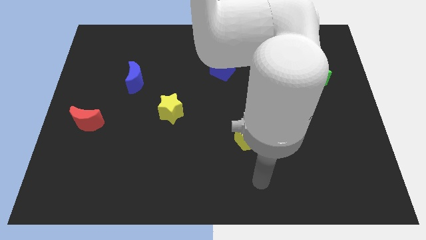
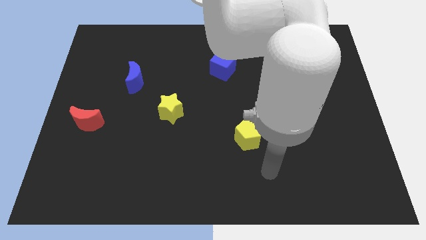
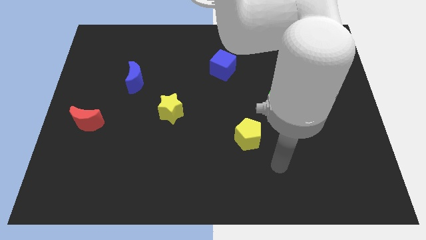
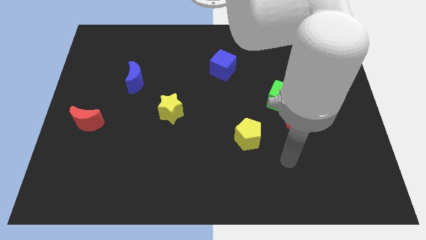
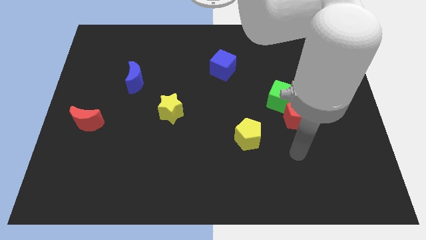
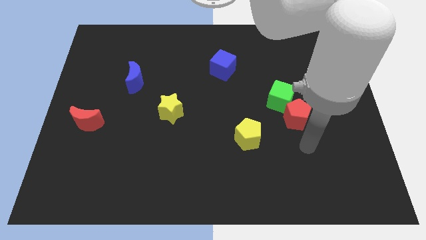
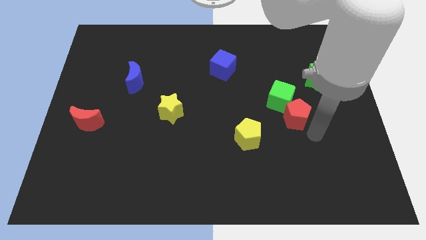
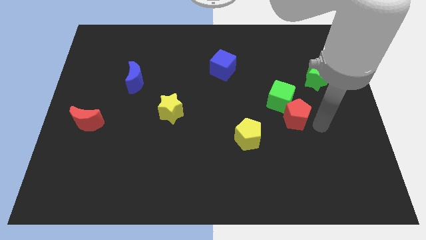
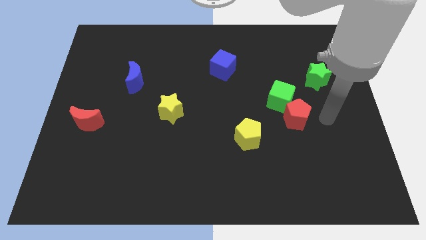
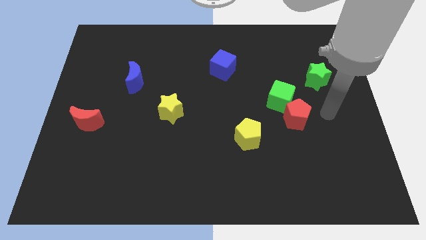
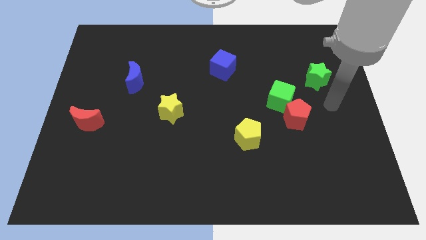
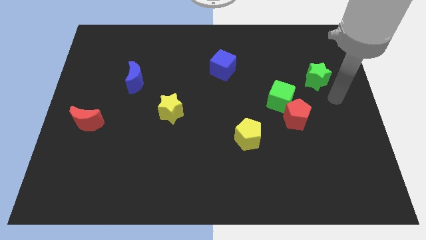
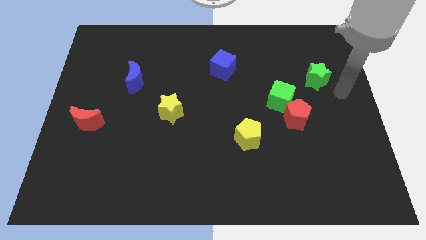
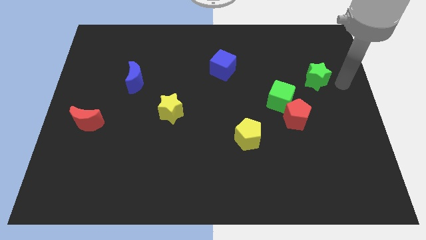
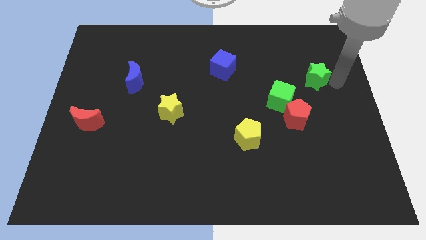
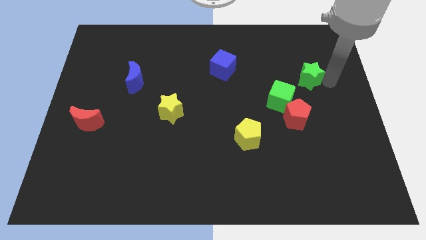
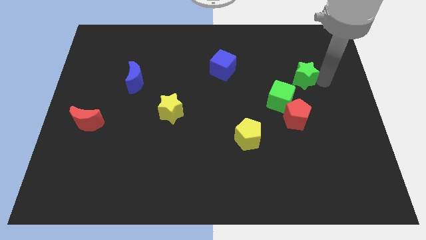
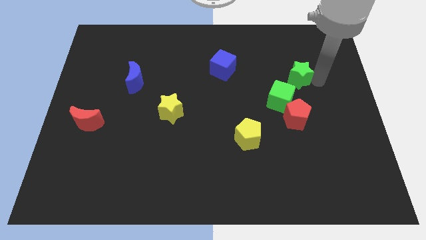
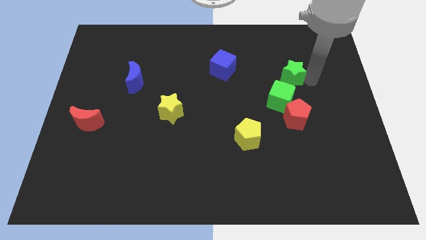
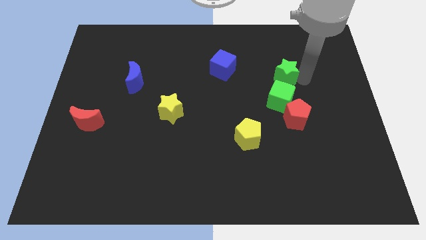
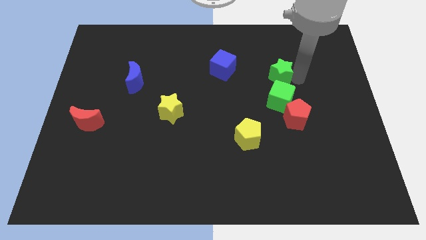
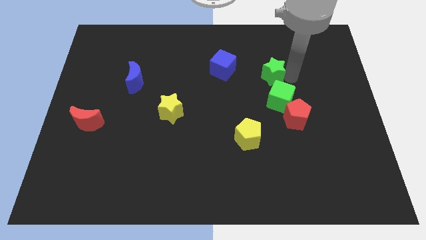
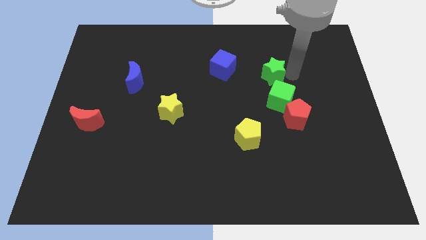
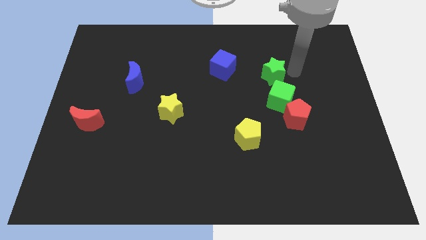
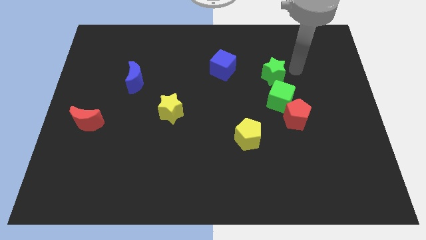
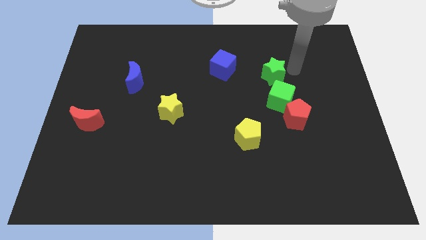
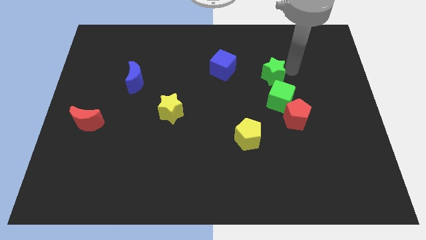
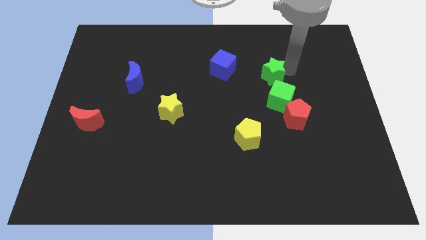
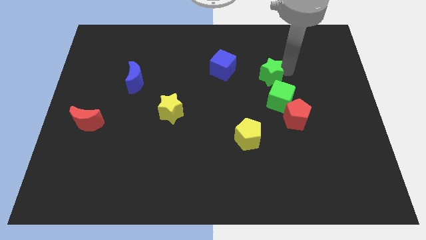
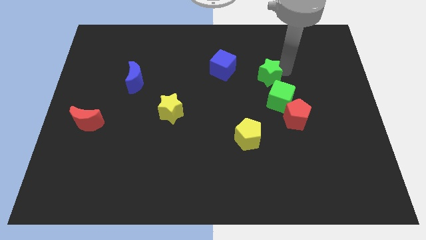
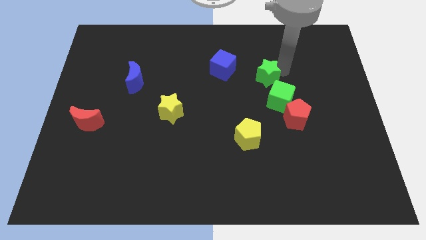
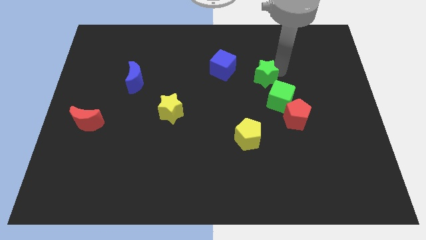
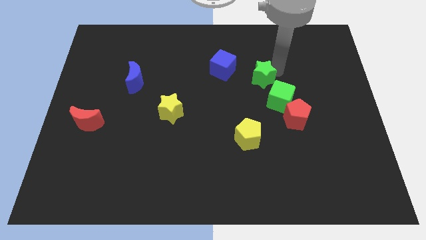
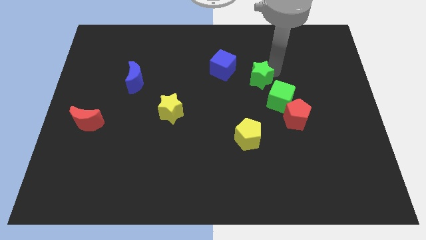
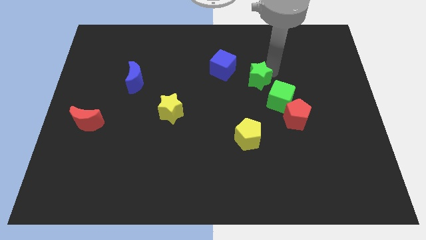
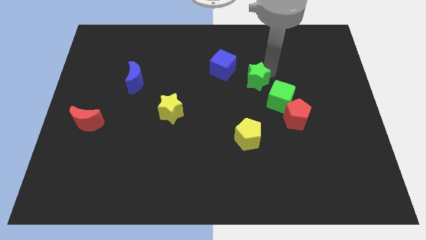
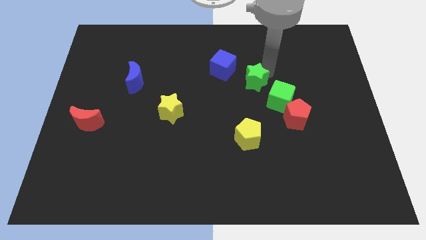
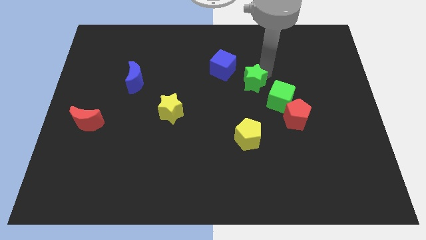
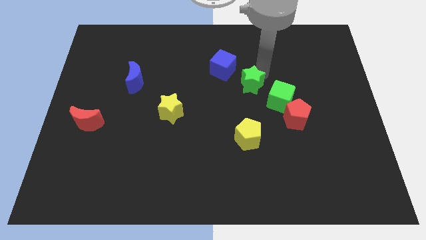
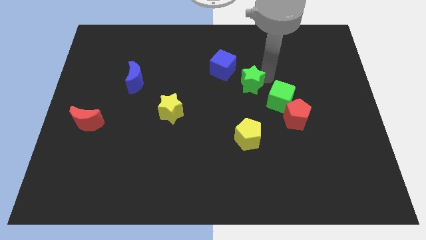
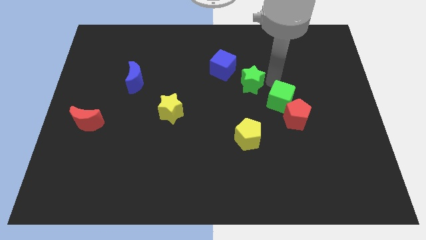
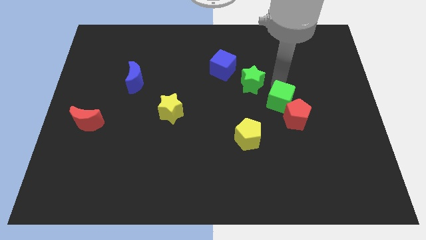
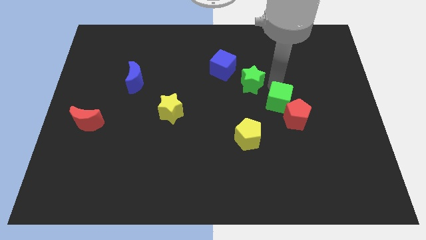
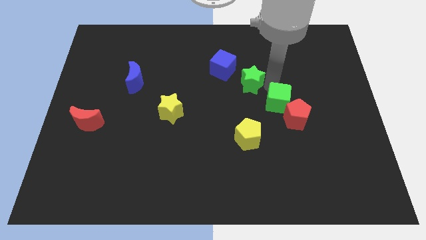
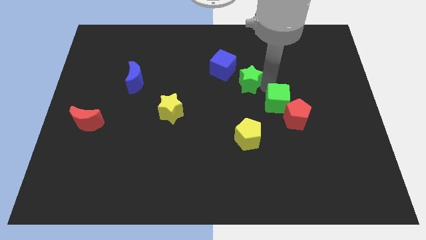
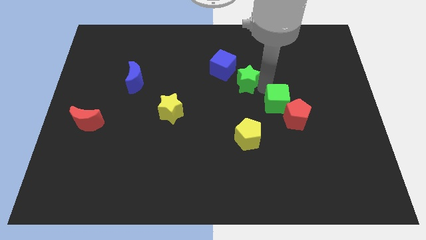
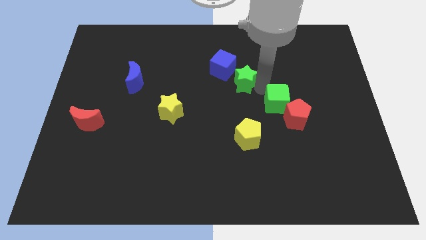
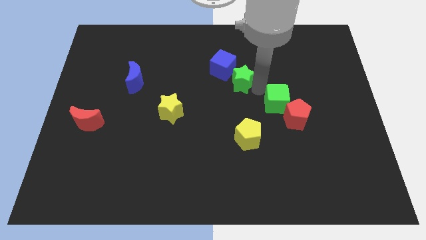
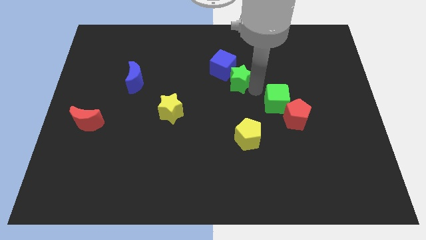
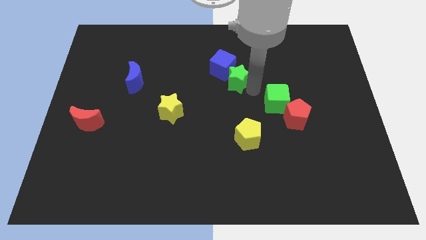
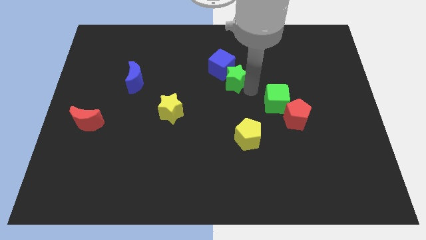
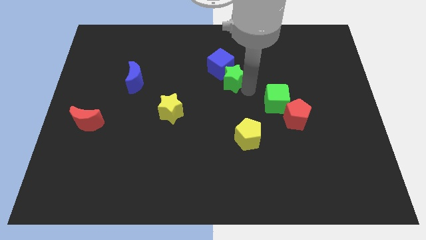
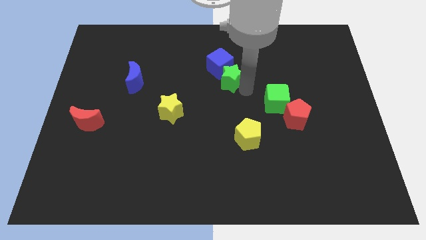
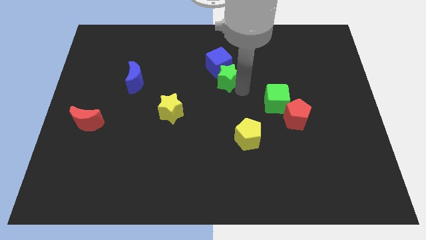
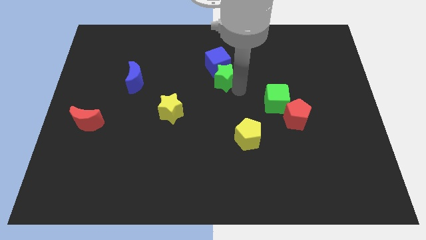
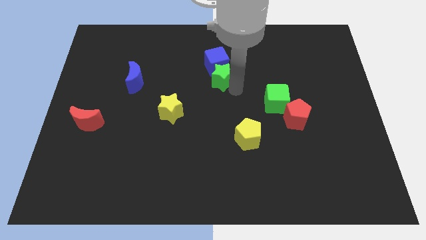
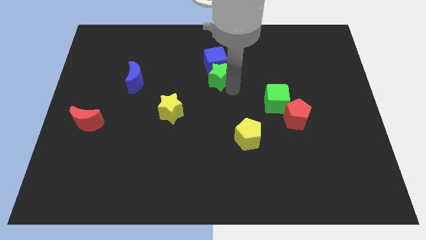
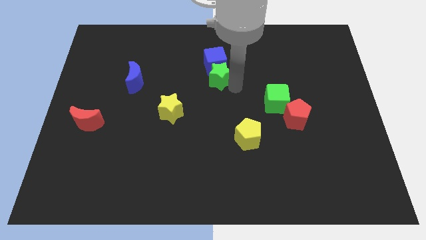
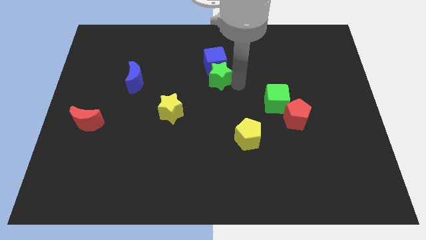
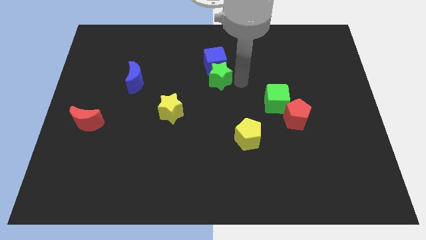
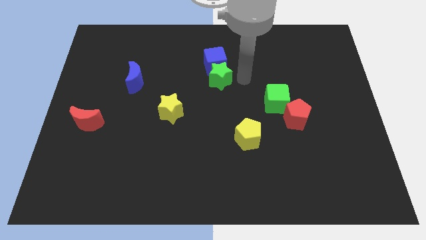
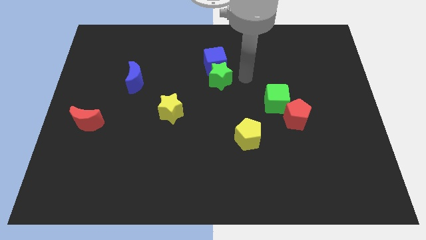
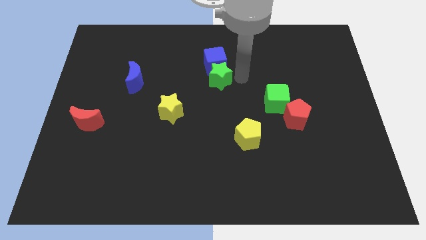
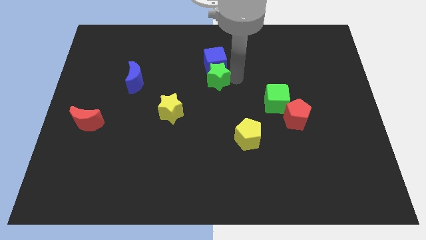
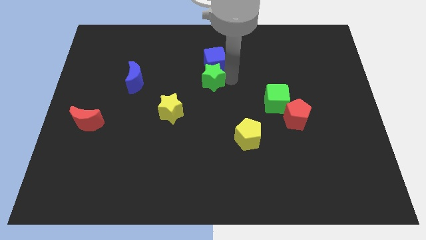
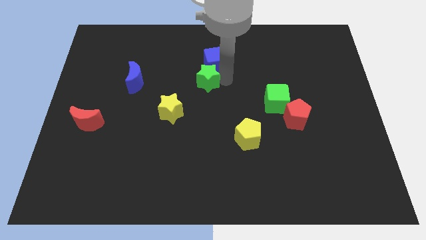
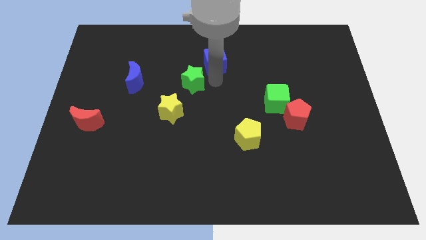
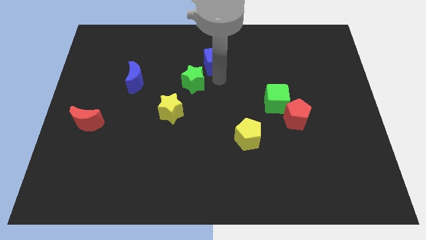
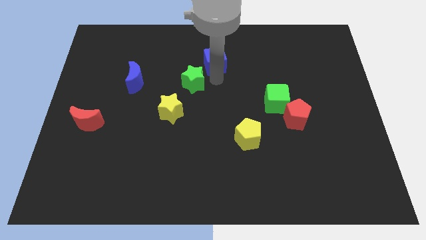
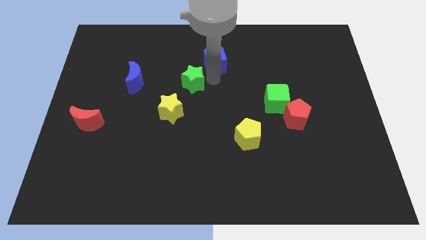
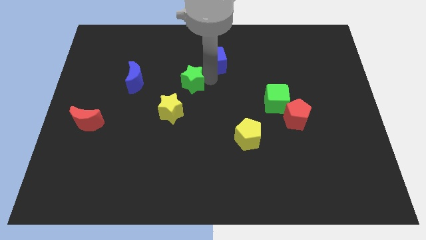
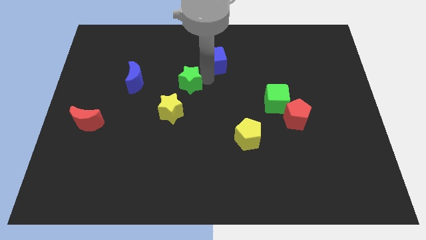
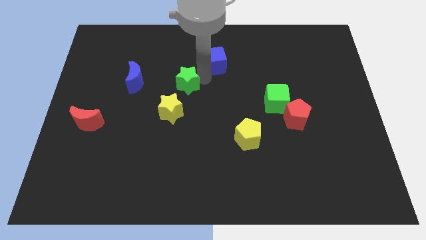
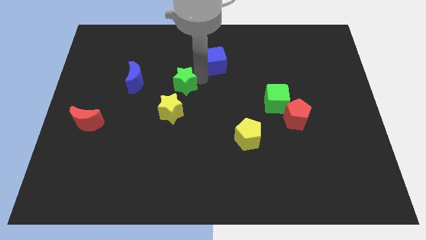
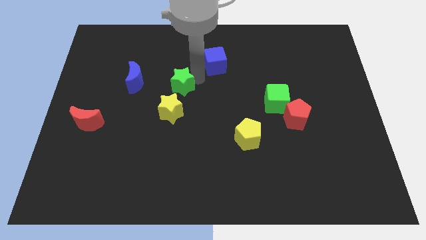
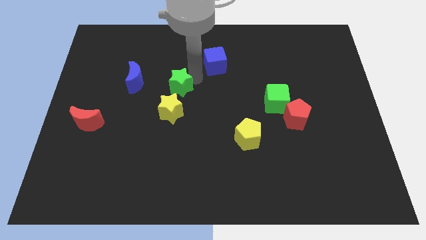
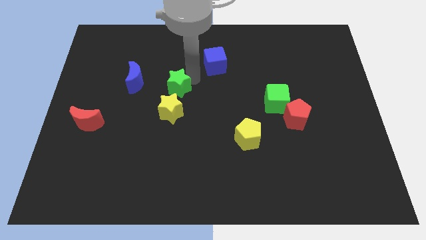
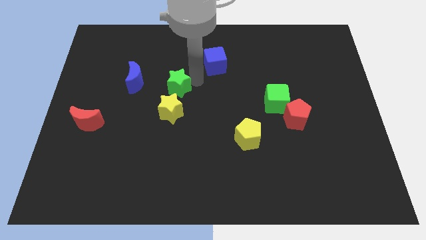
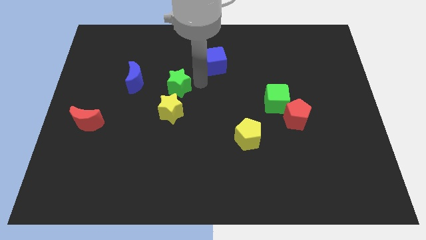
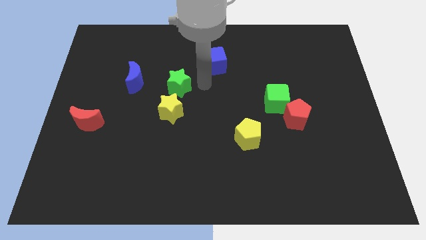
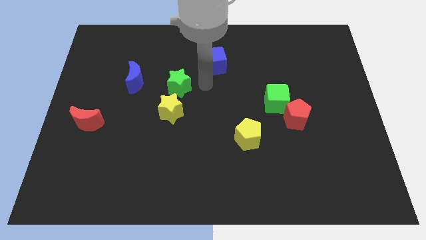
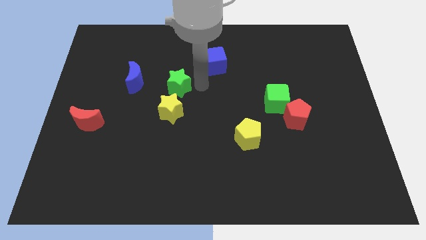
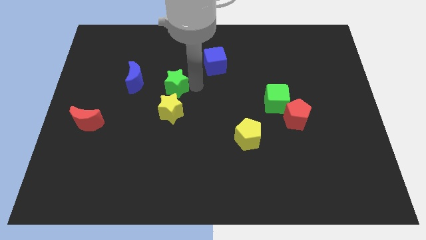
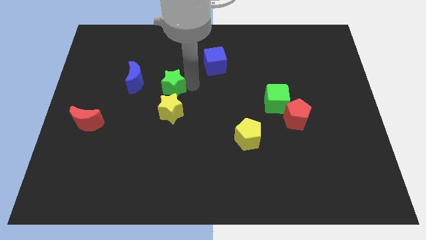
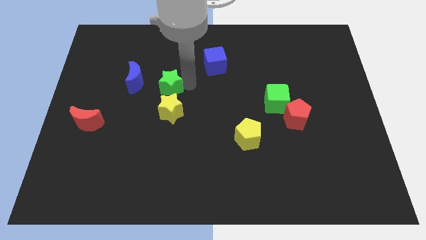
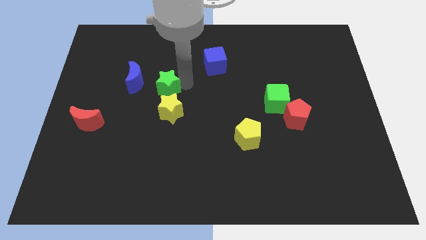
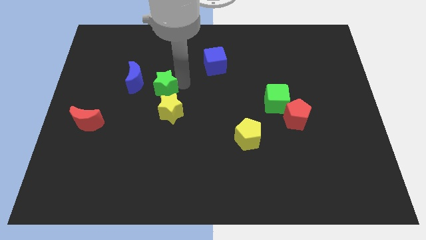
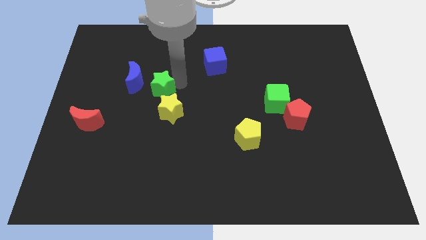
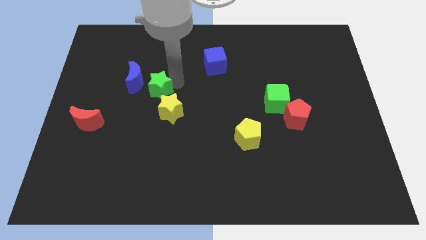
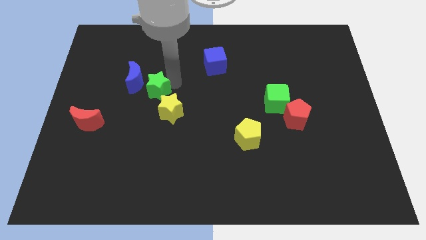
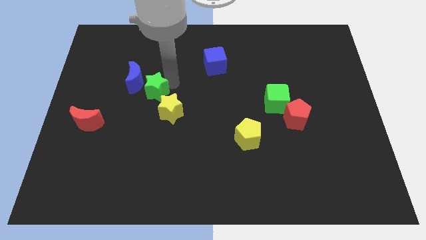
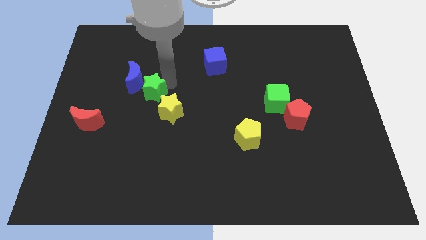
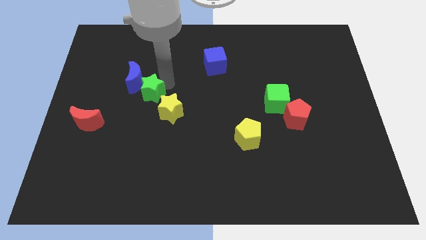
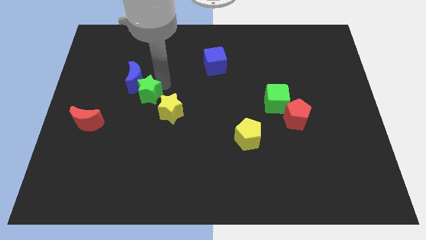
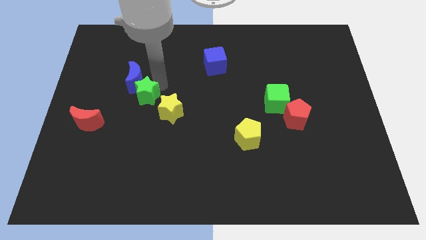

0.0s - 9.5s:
move the green star to the left side of the yellow star
